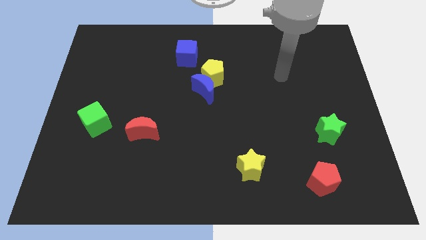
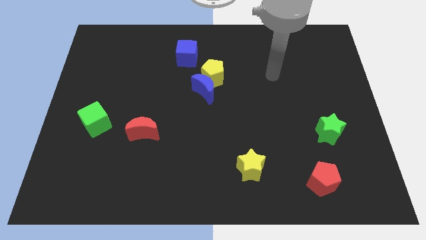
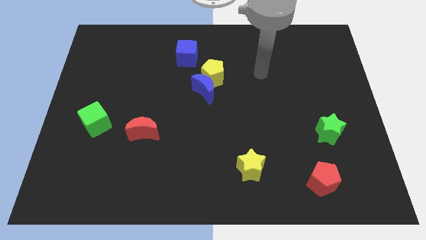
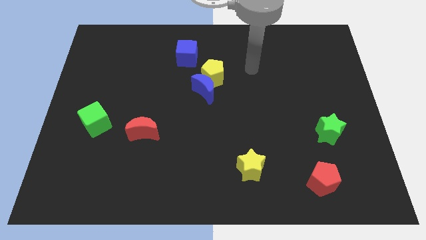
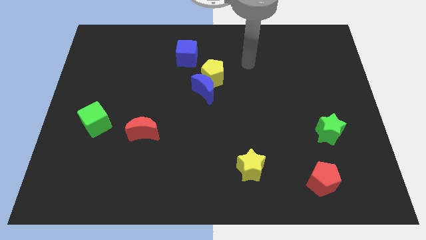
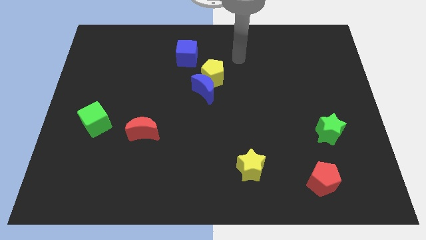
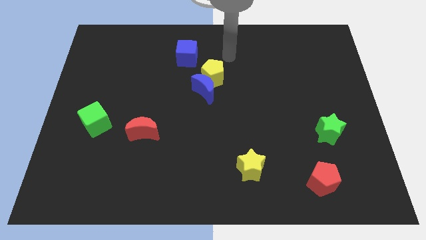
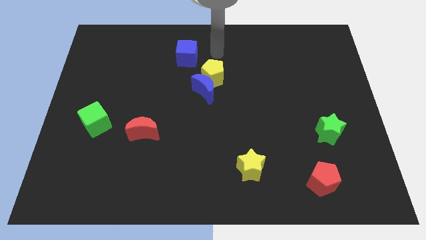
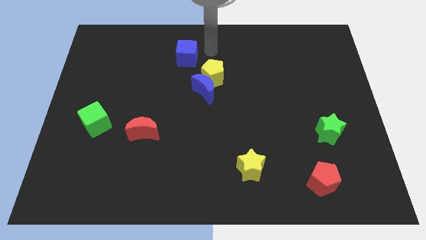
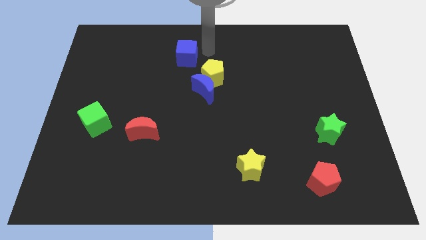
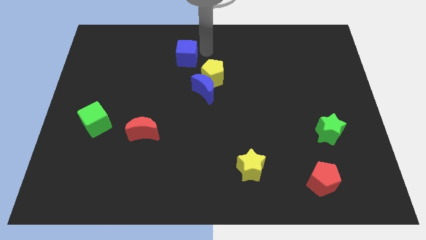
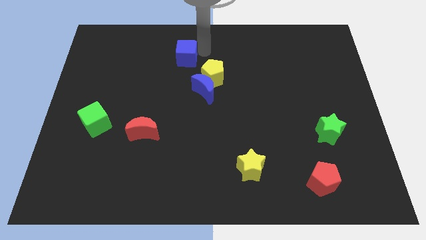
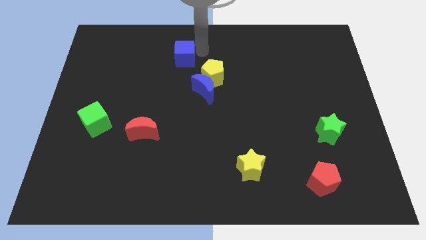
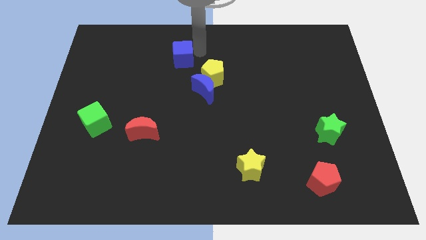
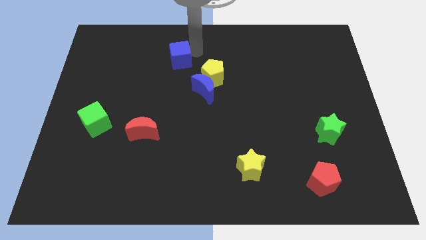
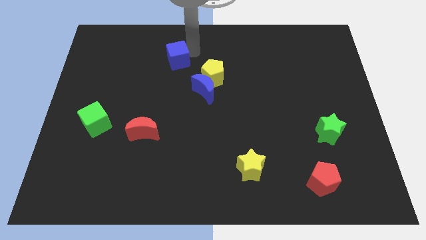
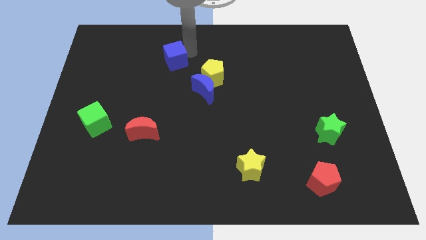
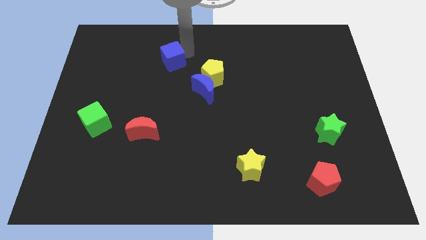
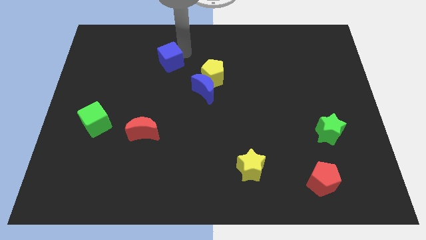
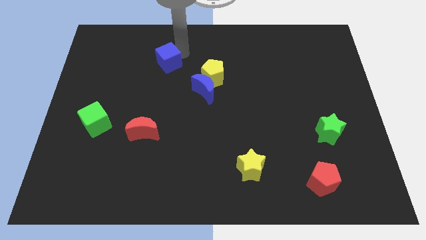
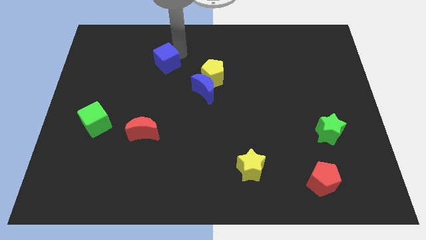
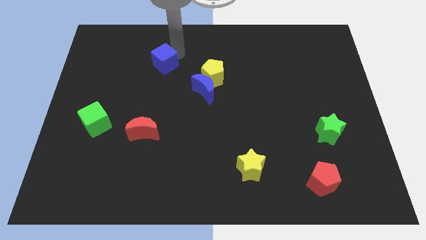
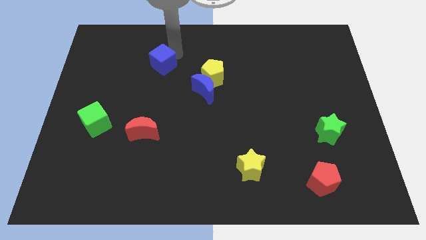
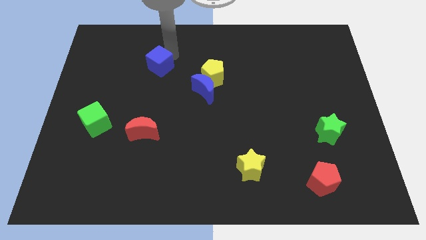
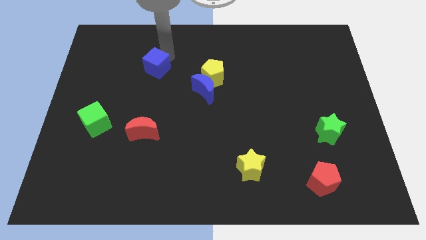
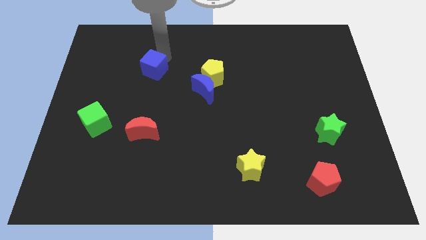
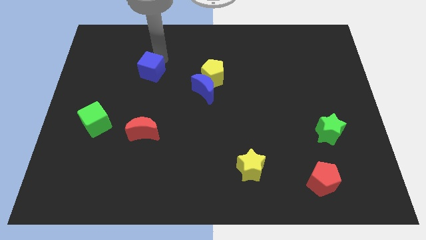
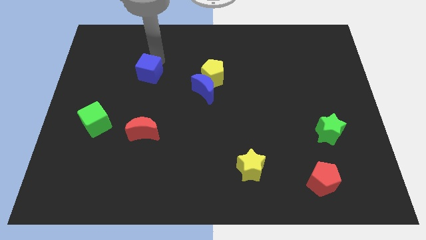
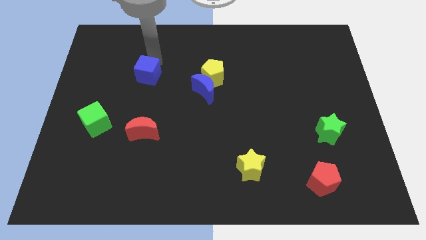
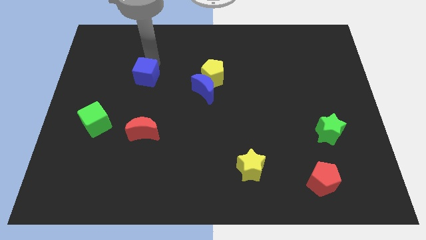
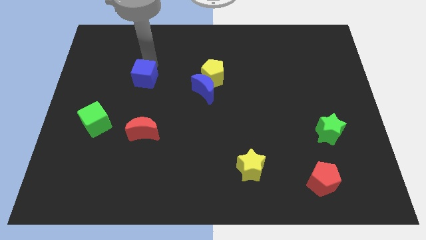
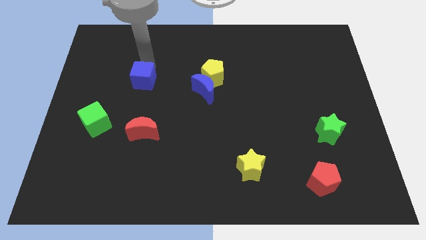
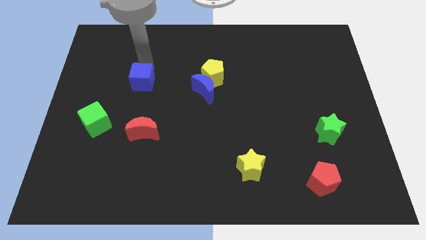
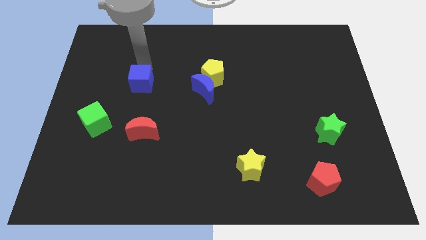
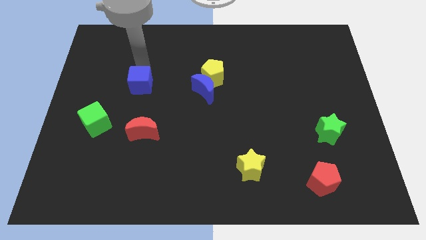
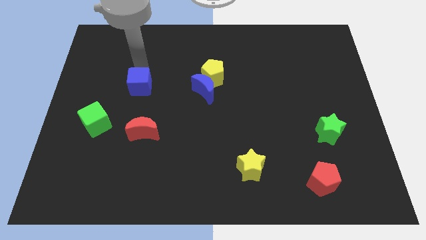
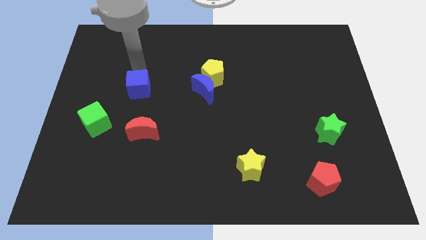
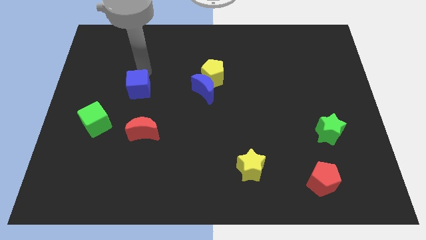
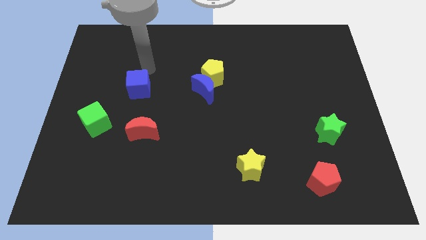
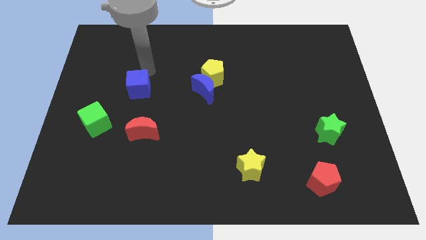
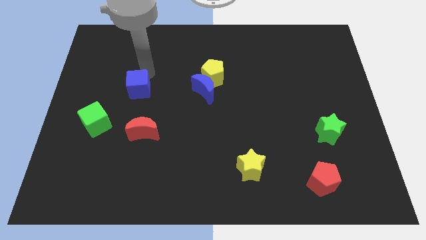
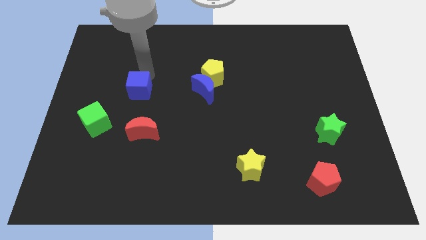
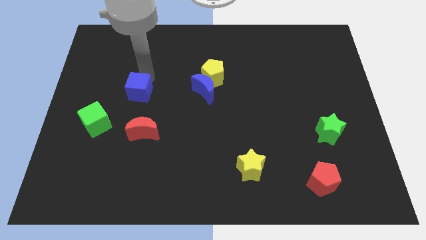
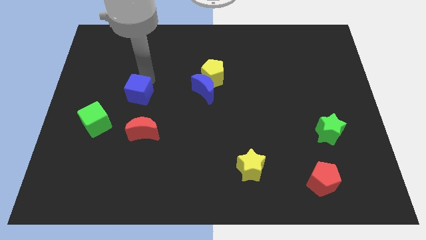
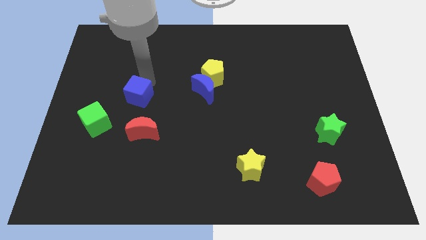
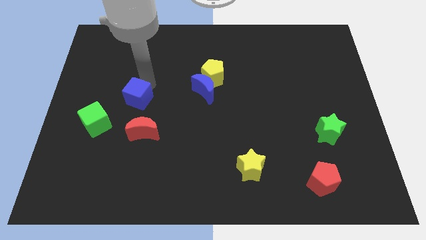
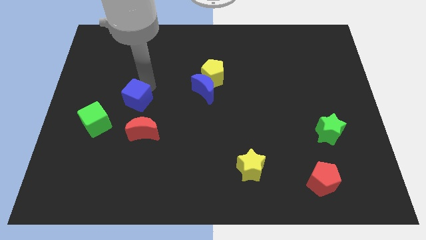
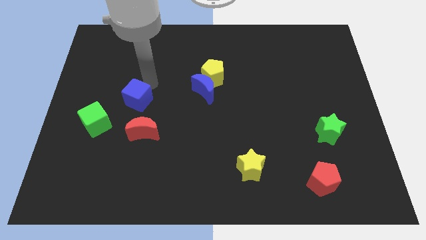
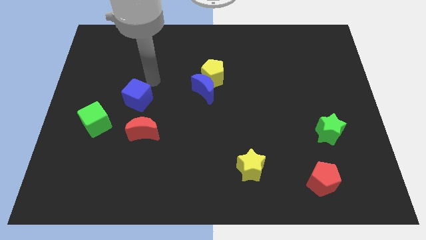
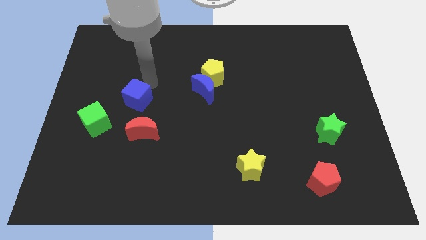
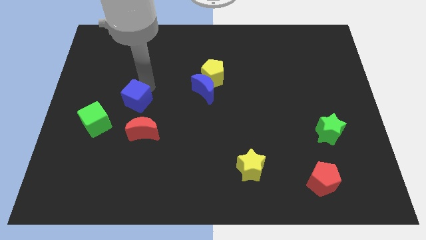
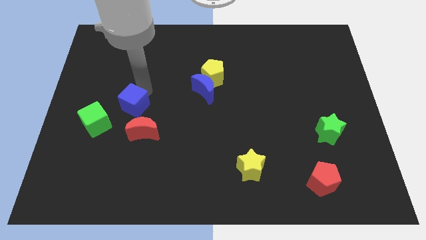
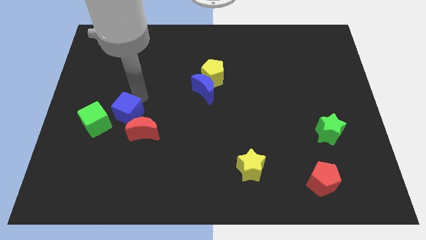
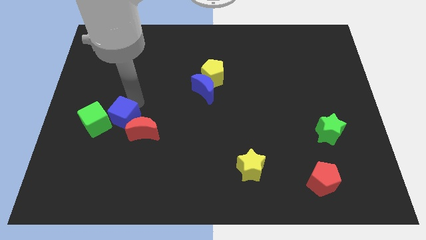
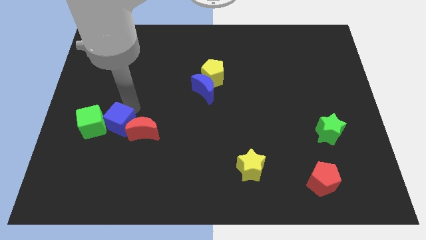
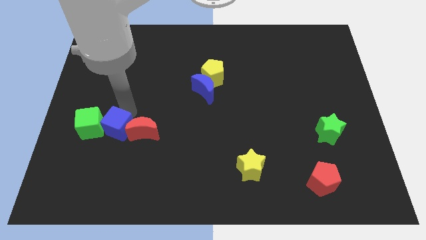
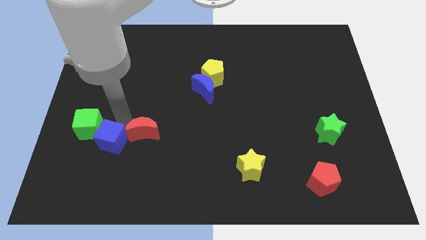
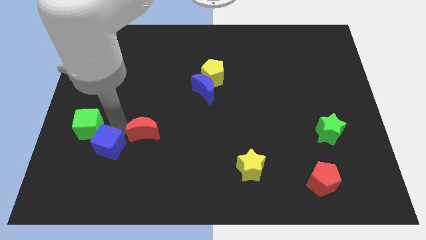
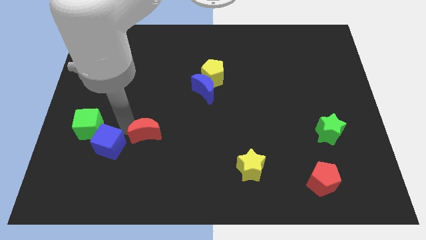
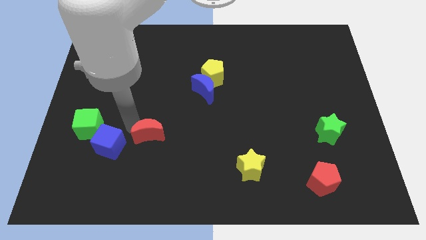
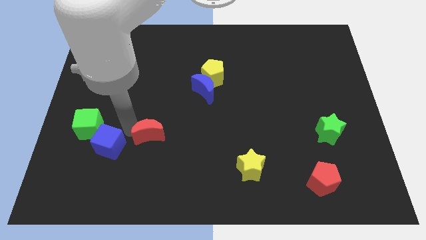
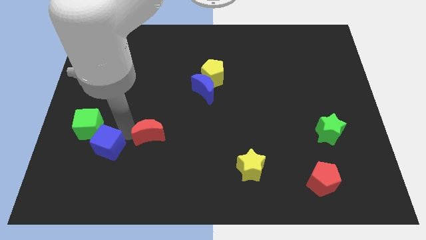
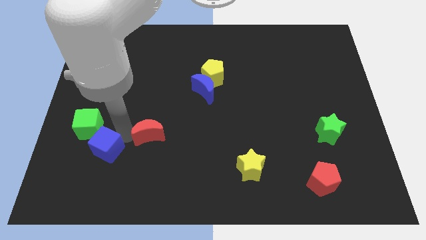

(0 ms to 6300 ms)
move the blue cube to the bottom of the green cube

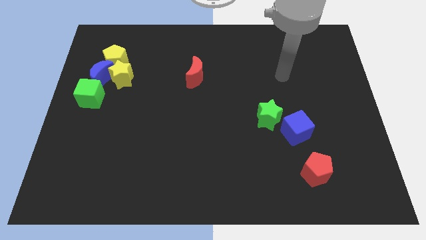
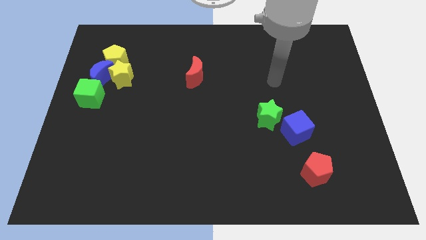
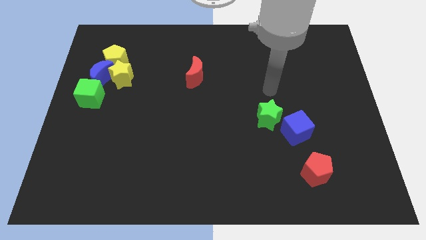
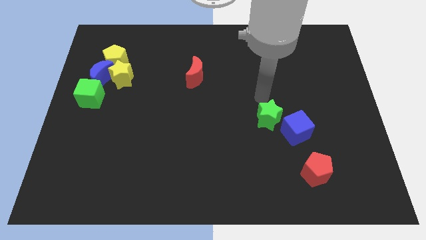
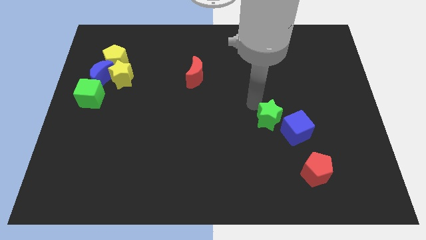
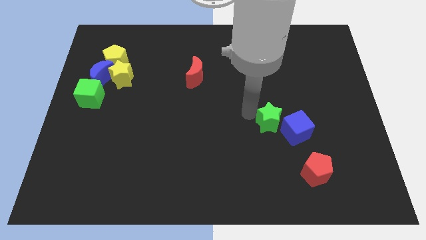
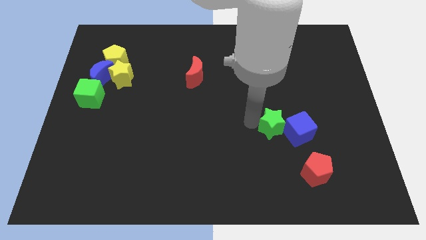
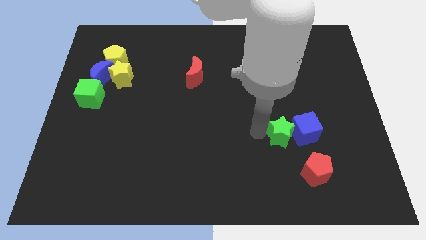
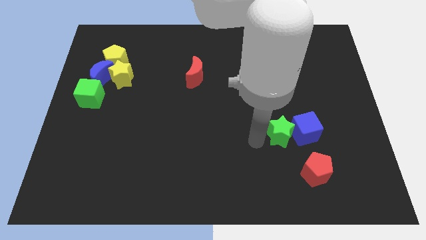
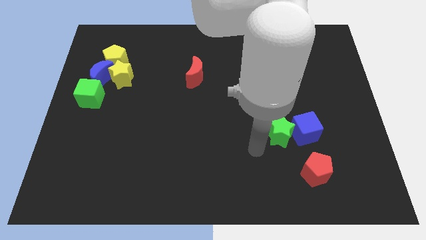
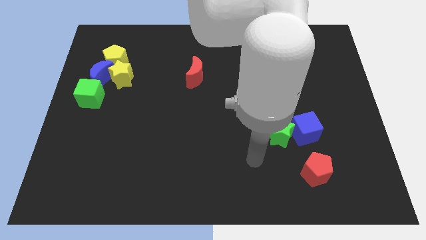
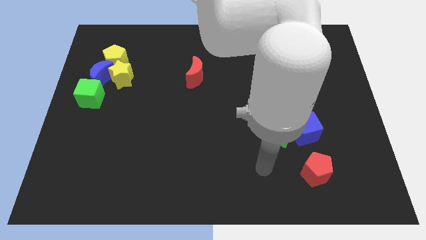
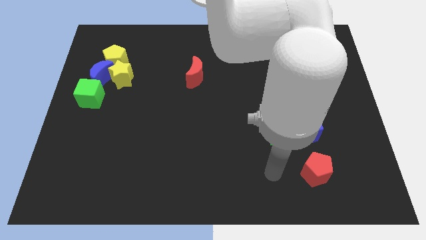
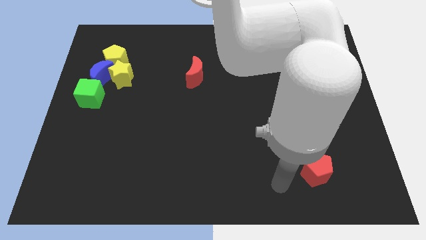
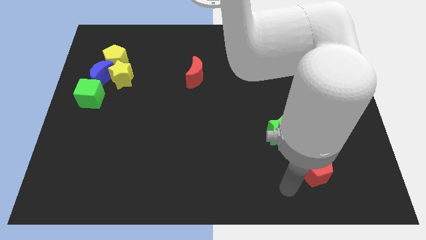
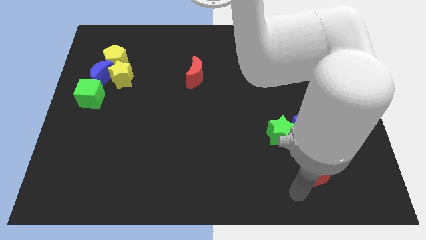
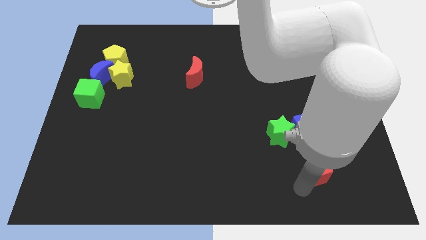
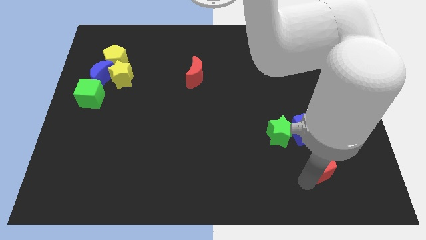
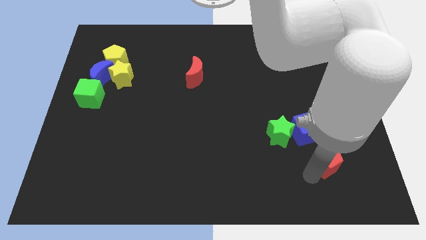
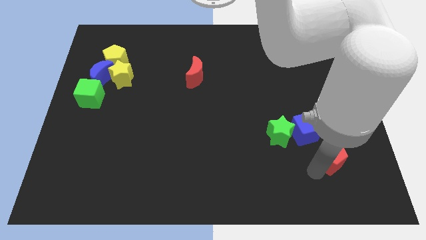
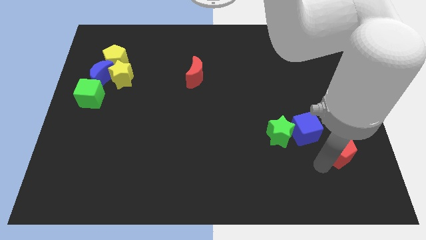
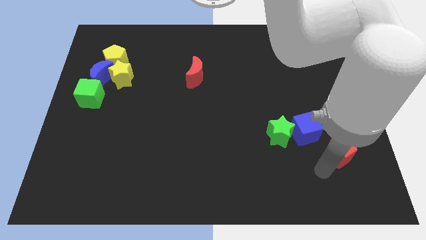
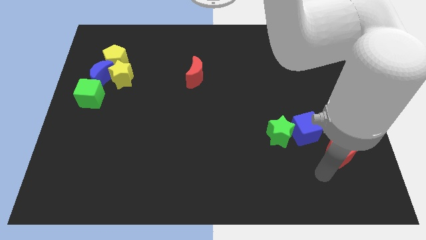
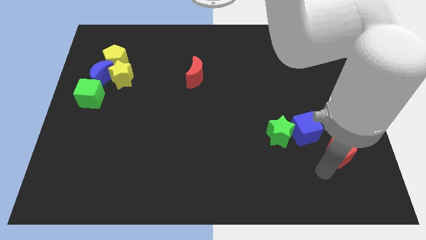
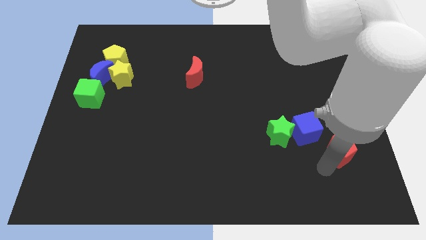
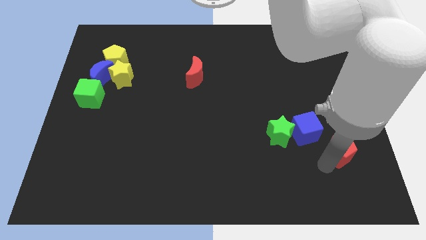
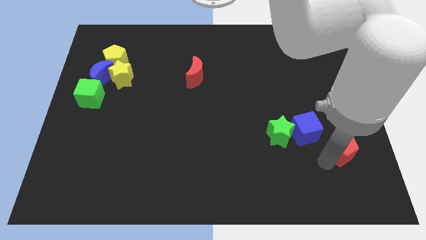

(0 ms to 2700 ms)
put the red pentagon just right of the blue cube
